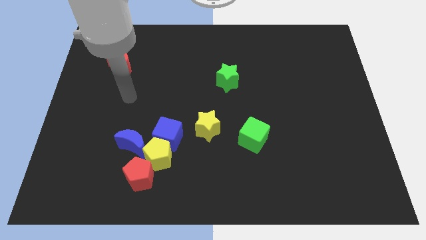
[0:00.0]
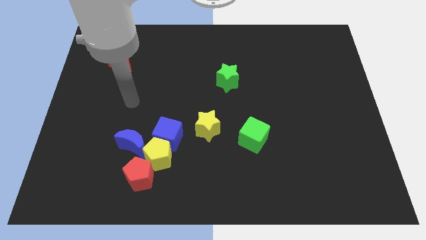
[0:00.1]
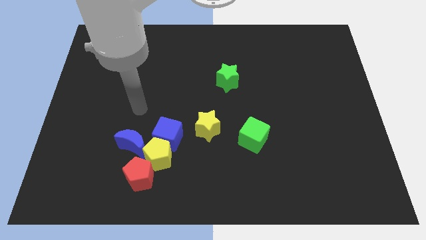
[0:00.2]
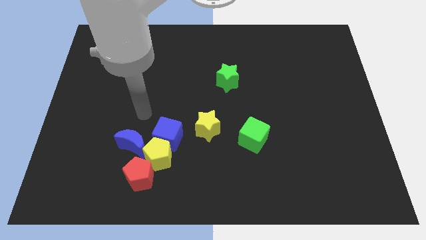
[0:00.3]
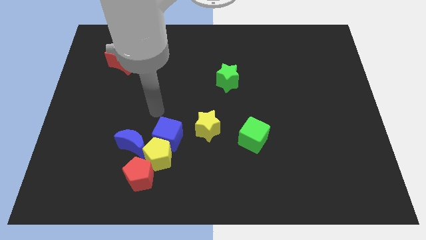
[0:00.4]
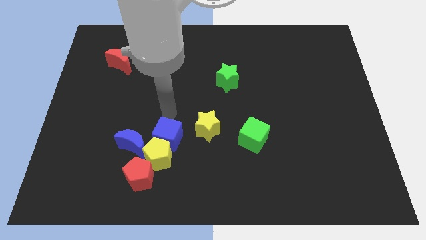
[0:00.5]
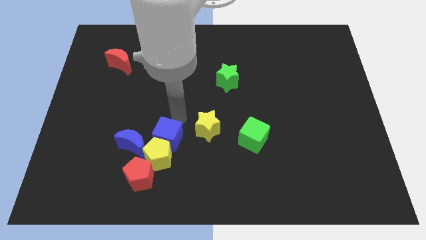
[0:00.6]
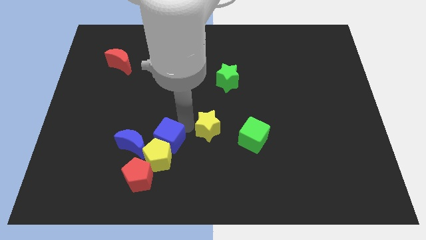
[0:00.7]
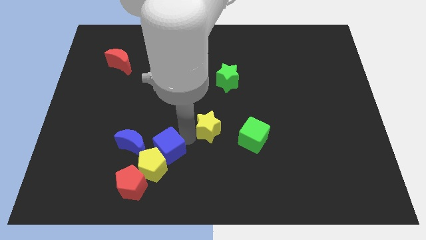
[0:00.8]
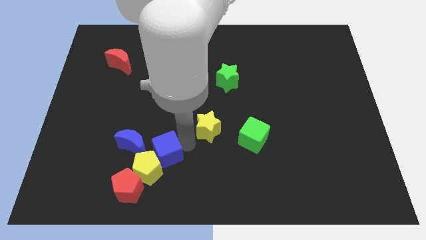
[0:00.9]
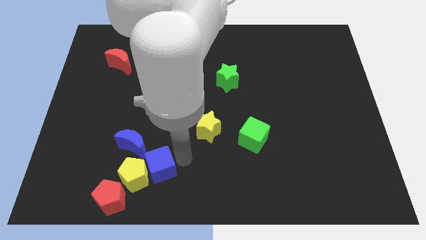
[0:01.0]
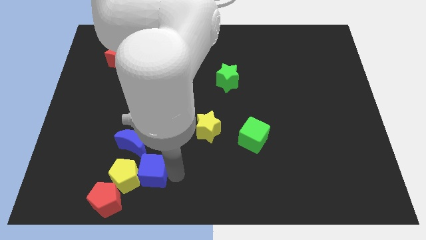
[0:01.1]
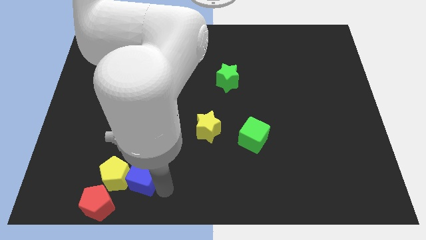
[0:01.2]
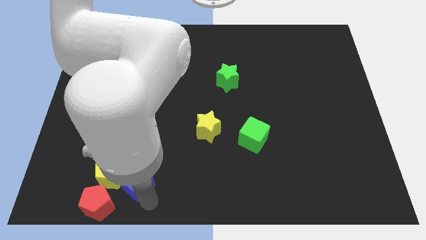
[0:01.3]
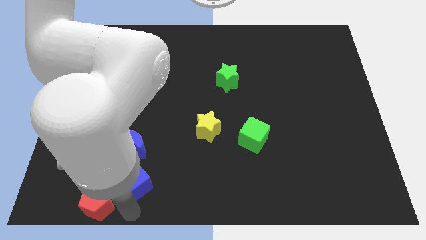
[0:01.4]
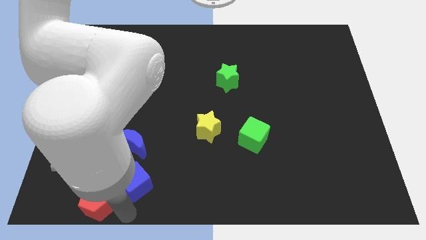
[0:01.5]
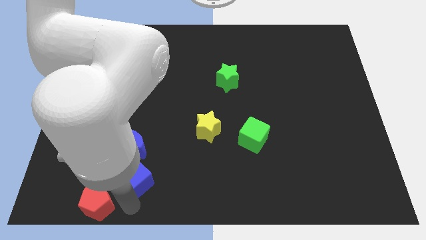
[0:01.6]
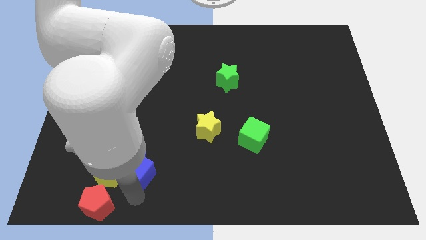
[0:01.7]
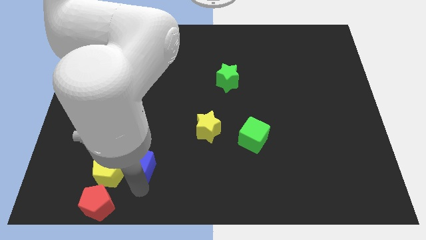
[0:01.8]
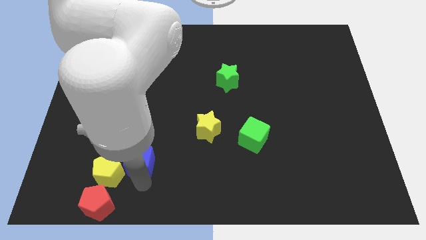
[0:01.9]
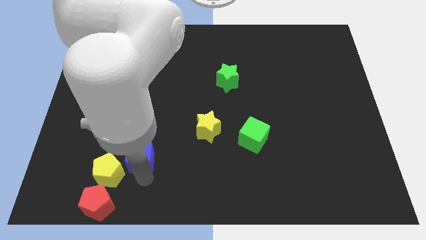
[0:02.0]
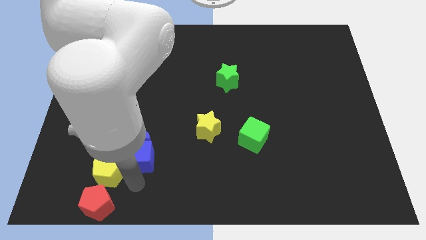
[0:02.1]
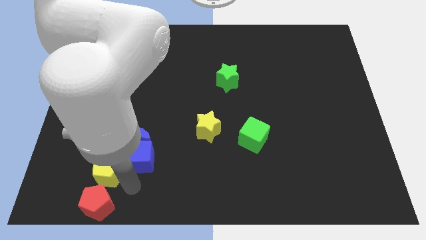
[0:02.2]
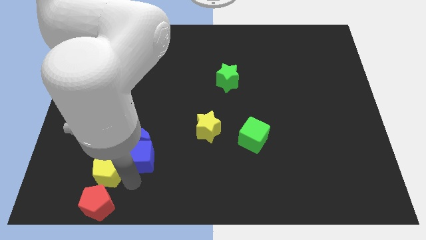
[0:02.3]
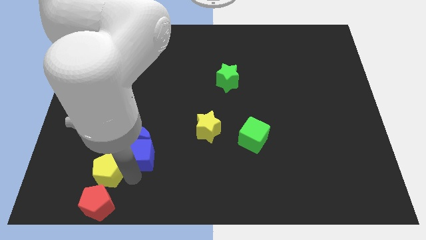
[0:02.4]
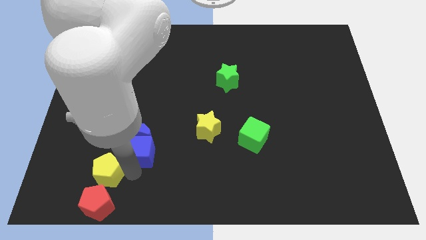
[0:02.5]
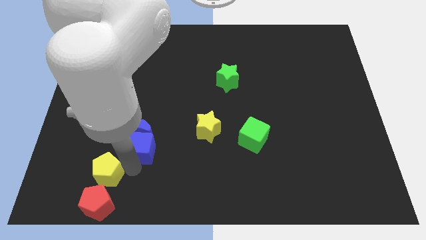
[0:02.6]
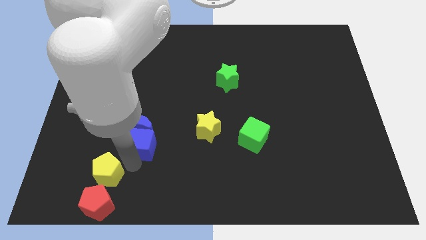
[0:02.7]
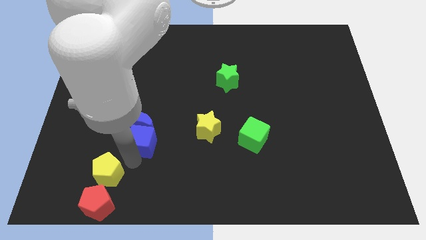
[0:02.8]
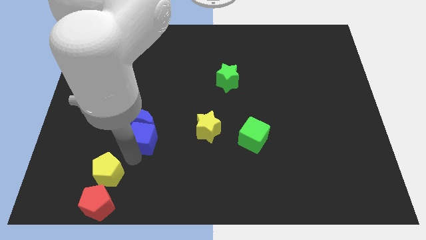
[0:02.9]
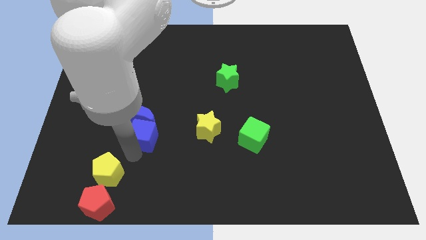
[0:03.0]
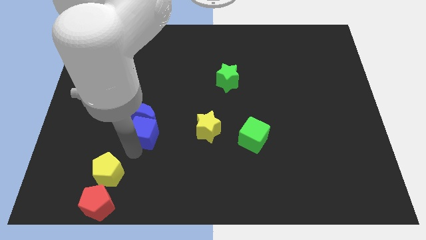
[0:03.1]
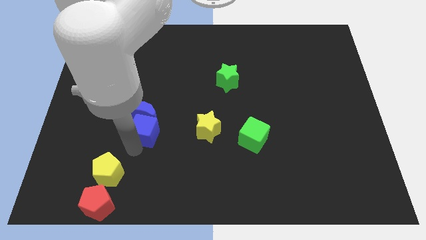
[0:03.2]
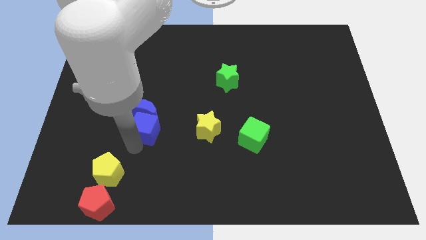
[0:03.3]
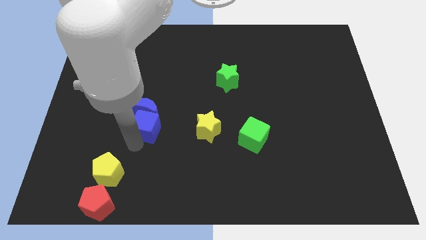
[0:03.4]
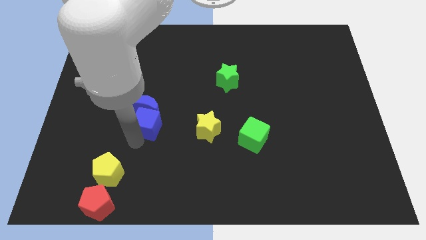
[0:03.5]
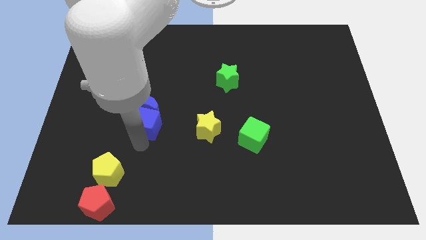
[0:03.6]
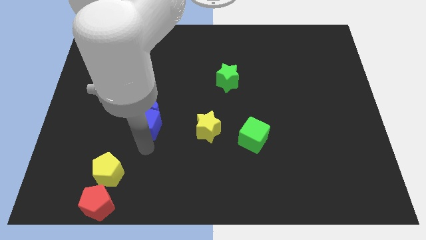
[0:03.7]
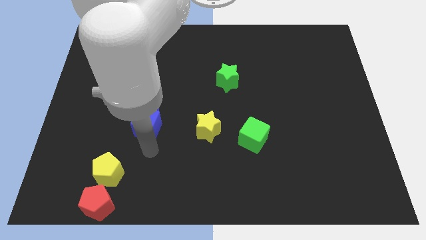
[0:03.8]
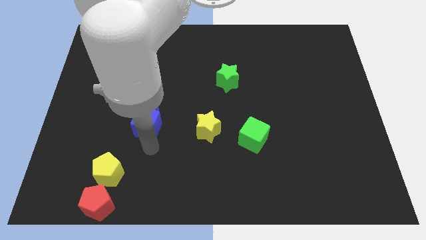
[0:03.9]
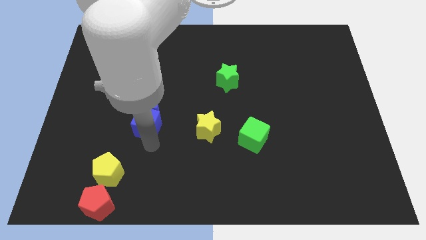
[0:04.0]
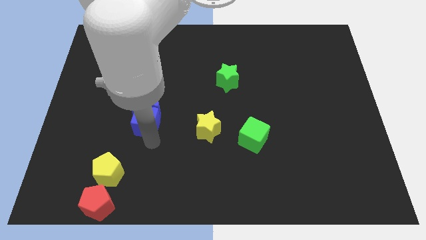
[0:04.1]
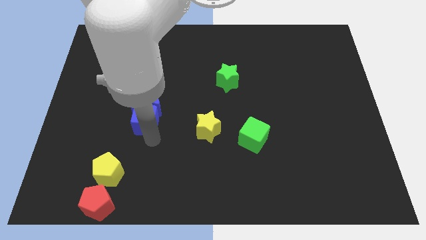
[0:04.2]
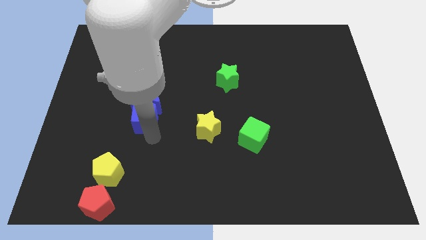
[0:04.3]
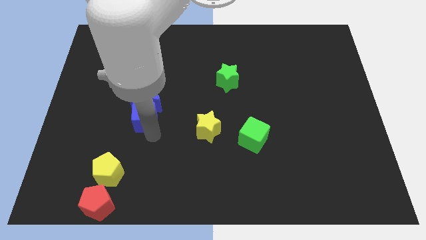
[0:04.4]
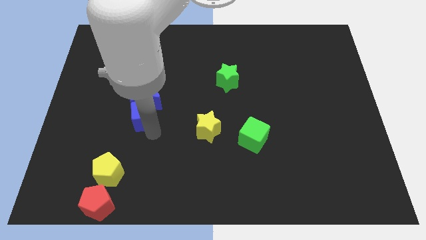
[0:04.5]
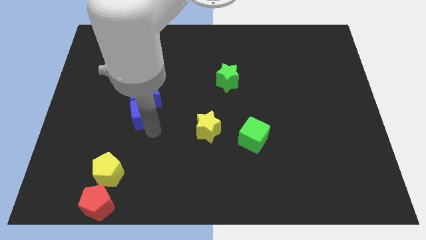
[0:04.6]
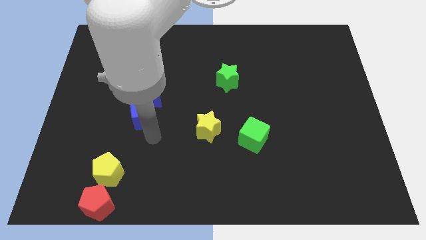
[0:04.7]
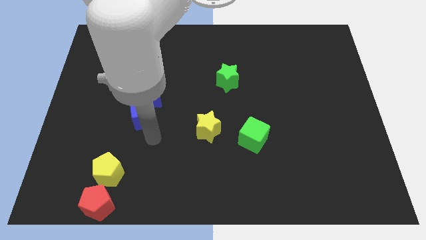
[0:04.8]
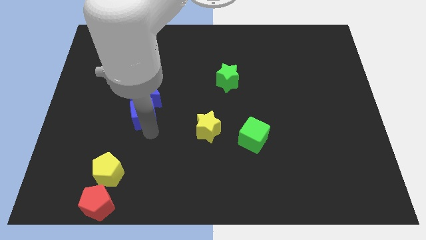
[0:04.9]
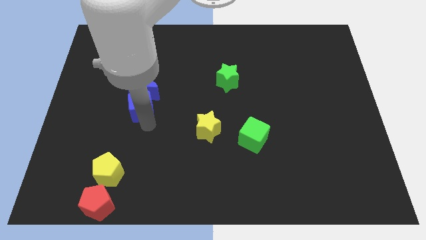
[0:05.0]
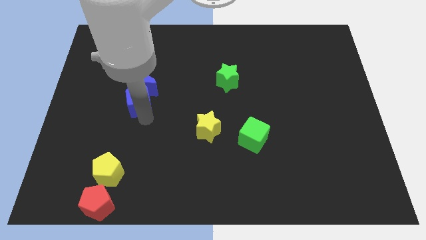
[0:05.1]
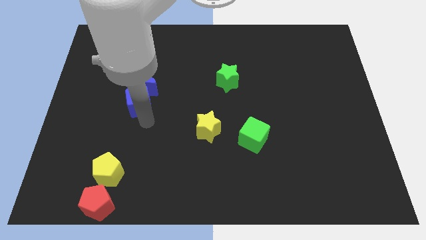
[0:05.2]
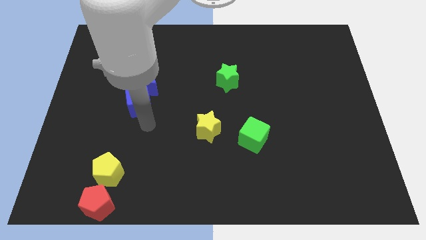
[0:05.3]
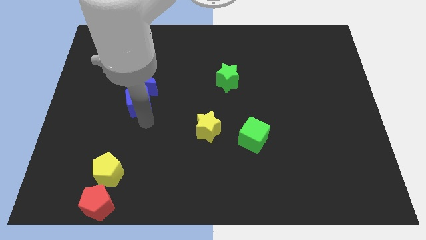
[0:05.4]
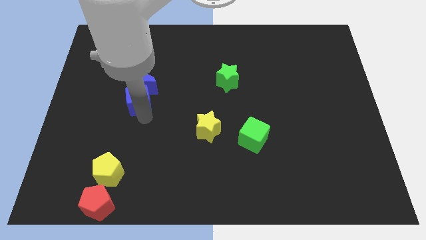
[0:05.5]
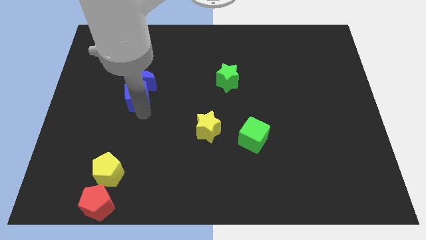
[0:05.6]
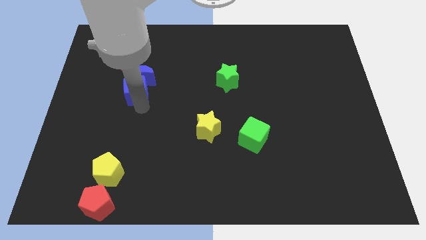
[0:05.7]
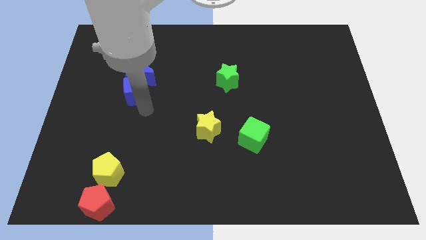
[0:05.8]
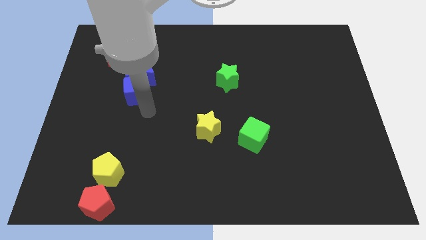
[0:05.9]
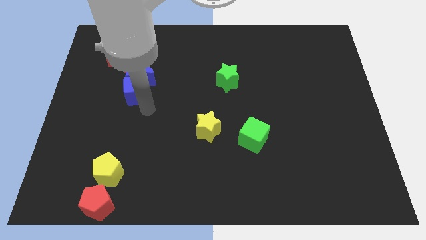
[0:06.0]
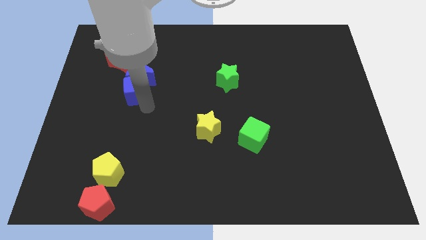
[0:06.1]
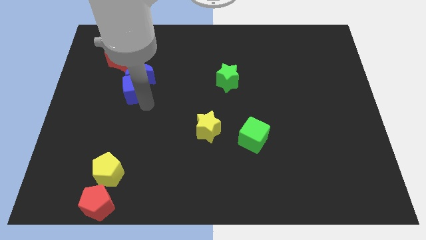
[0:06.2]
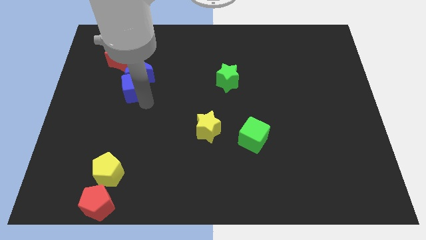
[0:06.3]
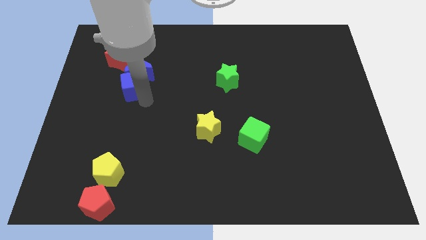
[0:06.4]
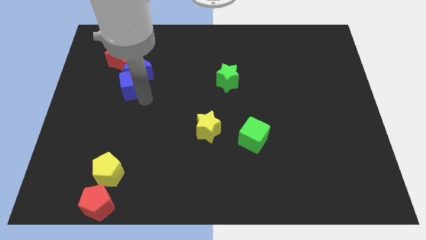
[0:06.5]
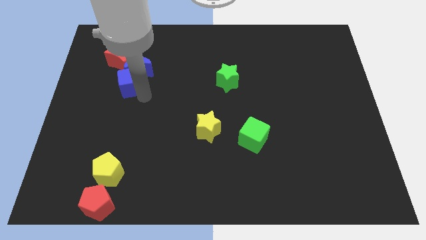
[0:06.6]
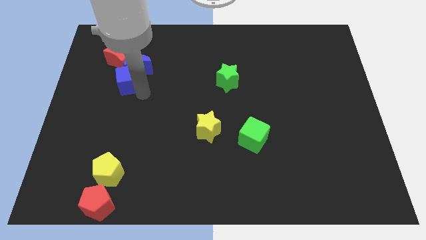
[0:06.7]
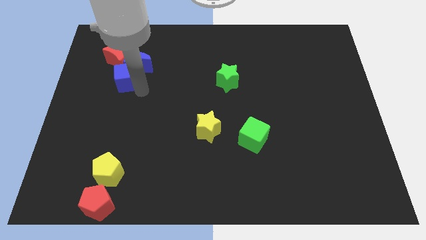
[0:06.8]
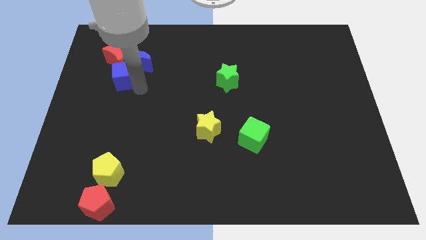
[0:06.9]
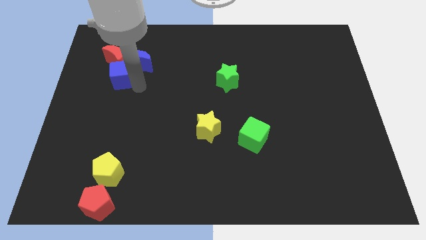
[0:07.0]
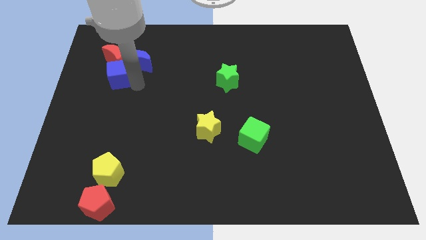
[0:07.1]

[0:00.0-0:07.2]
push the blue cube close to the red moon
